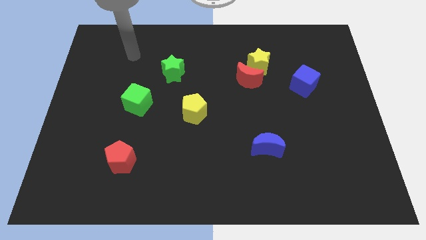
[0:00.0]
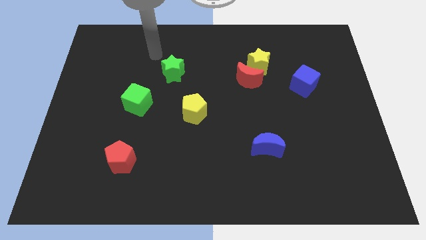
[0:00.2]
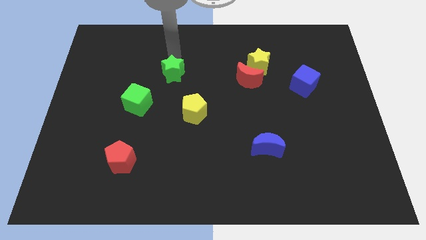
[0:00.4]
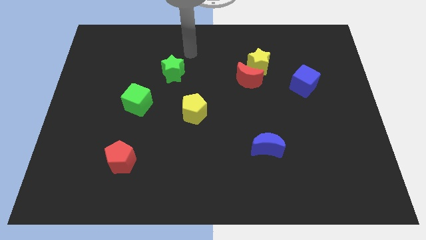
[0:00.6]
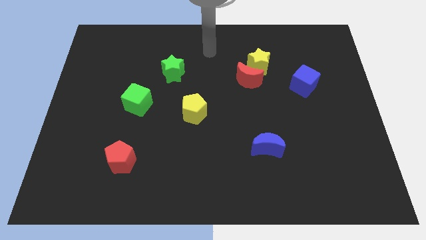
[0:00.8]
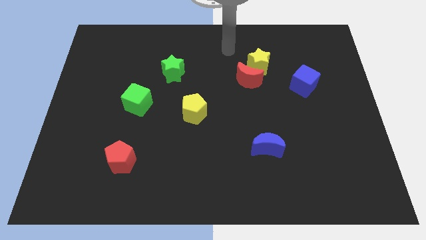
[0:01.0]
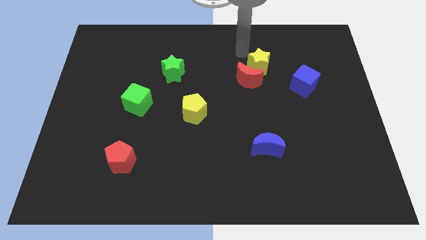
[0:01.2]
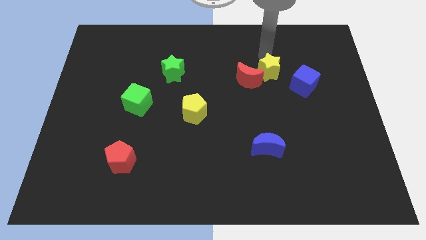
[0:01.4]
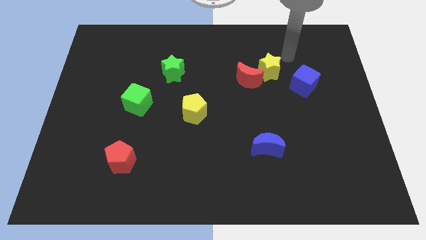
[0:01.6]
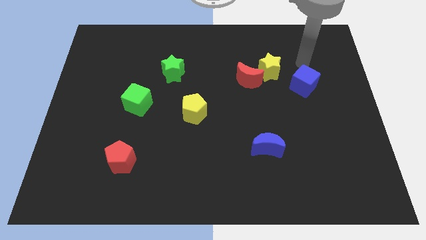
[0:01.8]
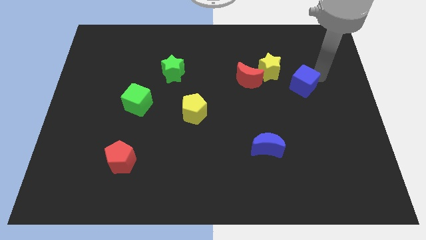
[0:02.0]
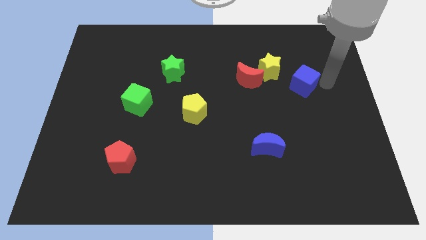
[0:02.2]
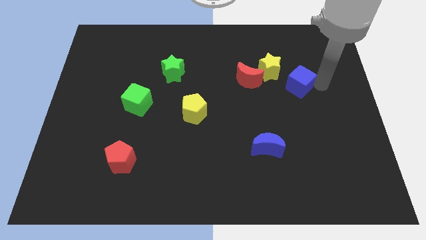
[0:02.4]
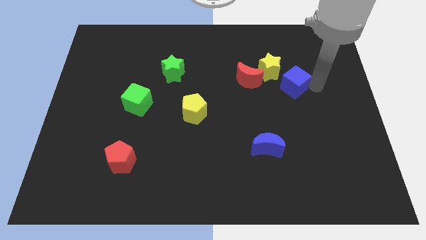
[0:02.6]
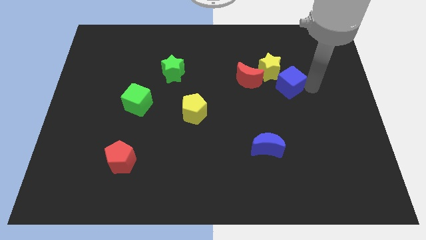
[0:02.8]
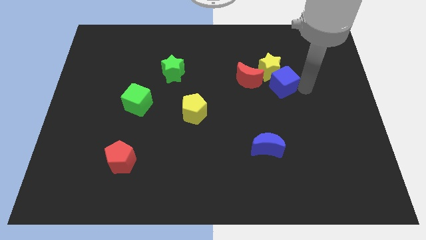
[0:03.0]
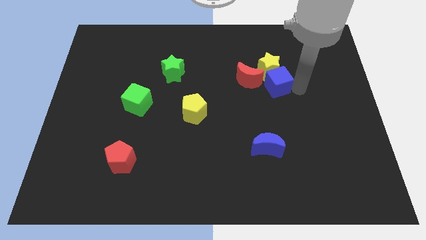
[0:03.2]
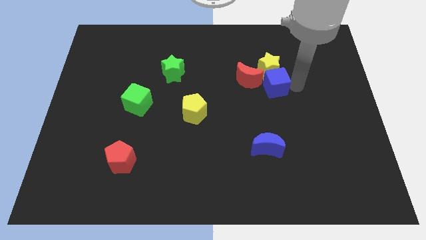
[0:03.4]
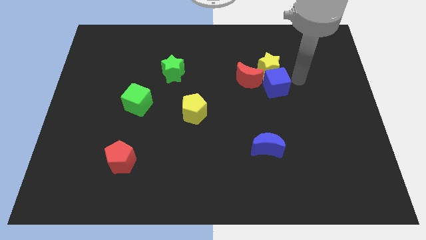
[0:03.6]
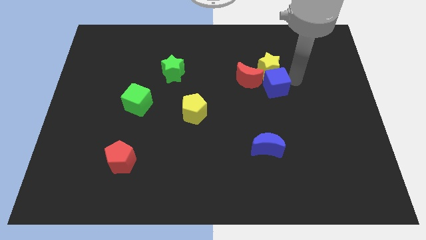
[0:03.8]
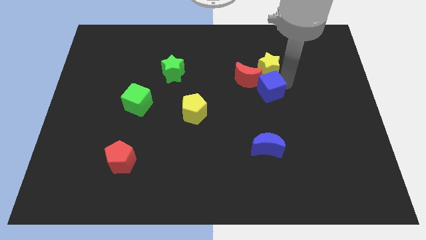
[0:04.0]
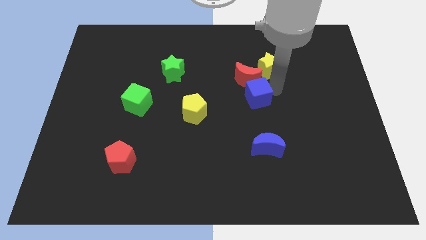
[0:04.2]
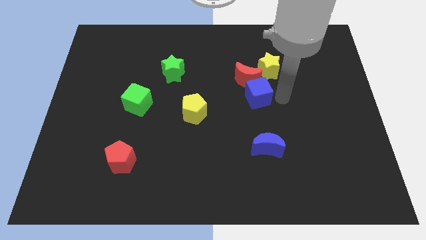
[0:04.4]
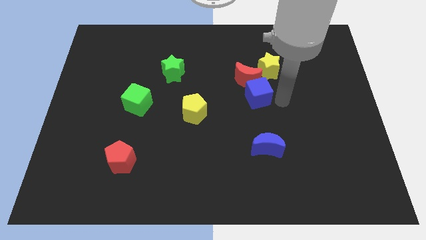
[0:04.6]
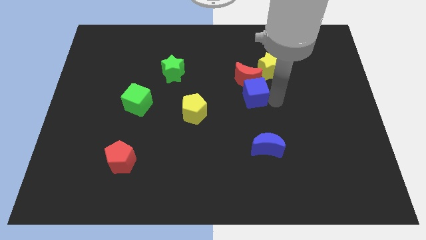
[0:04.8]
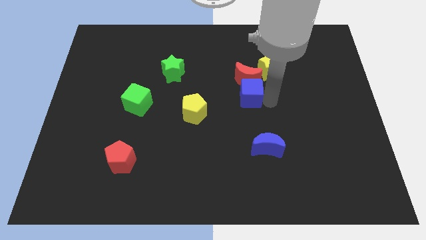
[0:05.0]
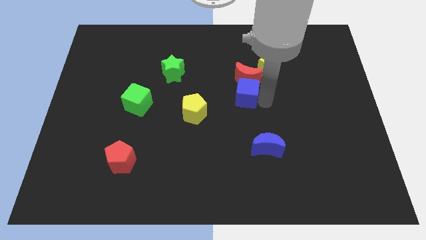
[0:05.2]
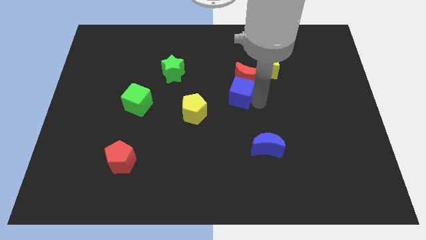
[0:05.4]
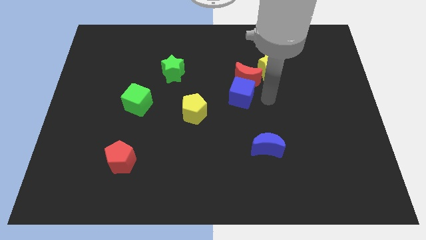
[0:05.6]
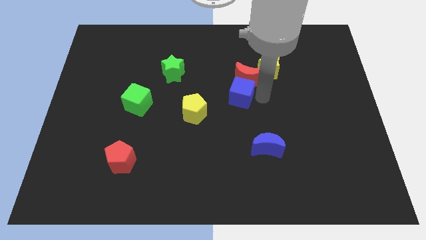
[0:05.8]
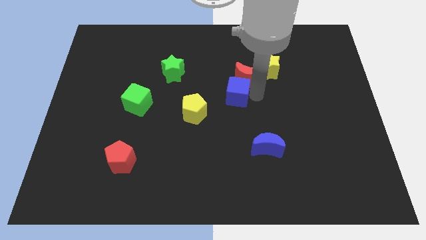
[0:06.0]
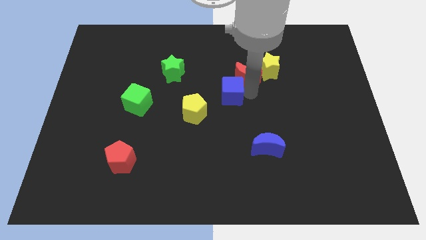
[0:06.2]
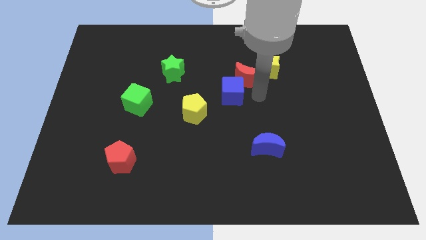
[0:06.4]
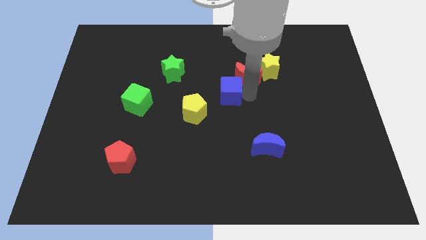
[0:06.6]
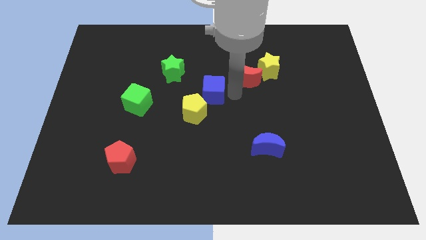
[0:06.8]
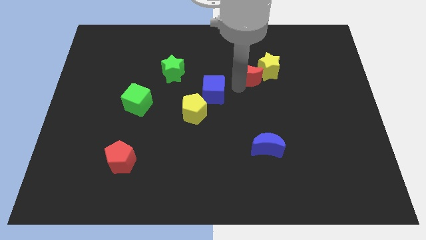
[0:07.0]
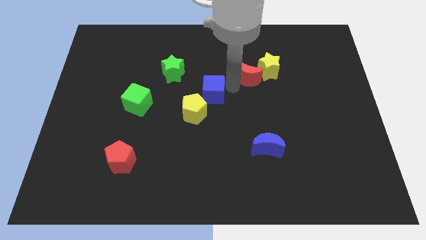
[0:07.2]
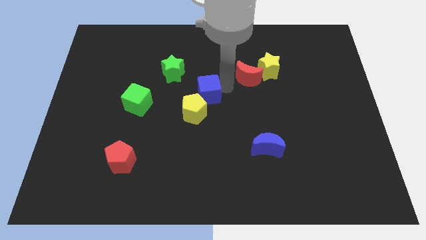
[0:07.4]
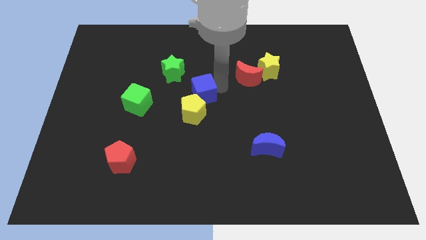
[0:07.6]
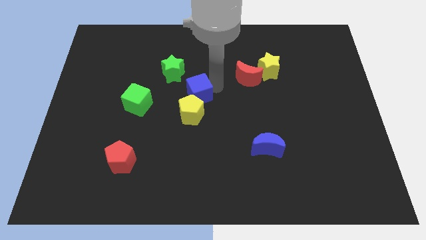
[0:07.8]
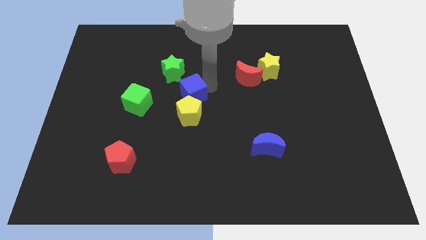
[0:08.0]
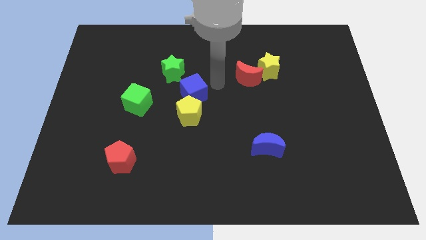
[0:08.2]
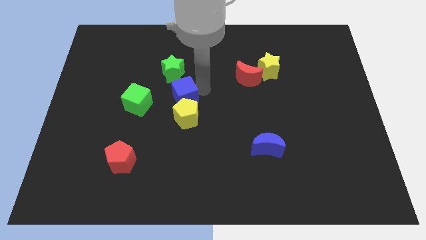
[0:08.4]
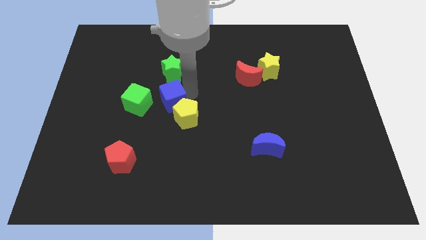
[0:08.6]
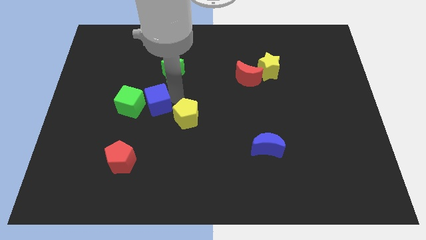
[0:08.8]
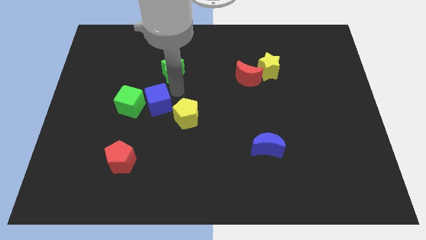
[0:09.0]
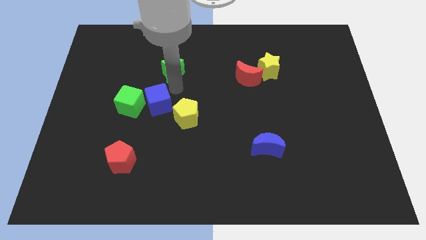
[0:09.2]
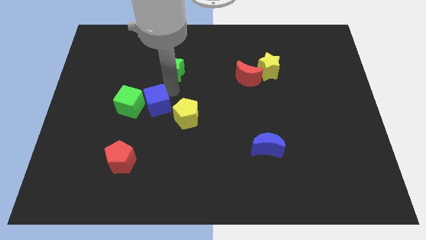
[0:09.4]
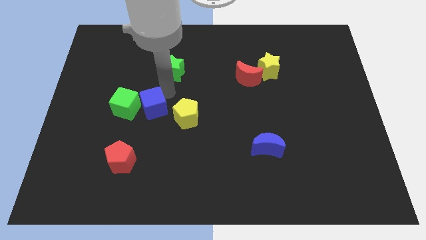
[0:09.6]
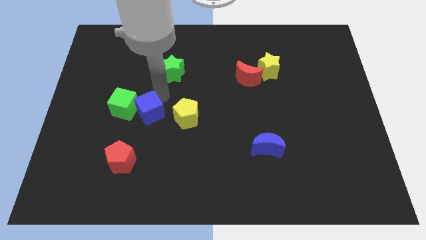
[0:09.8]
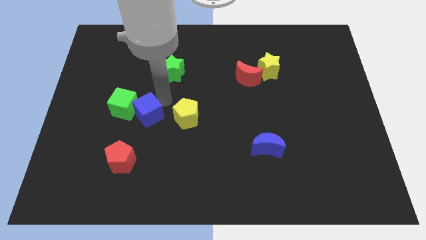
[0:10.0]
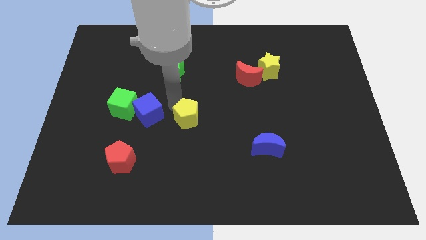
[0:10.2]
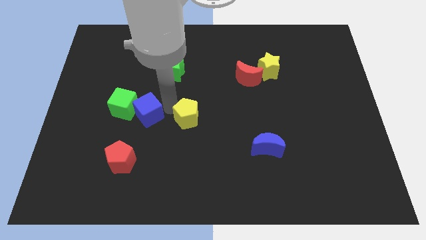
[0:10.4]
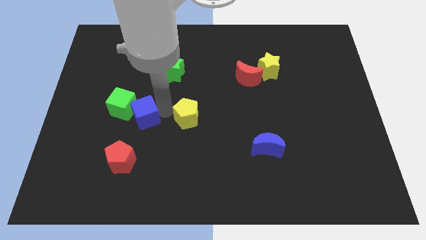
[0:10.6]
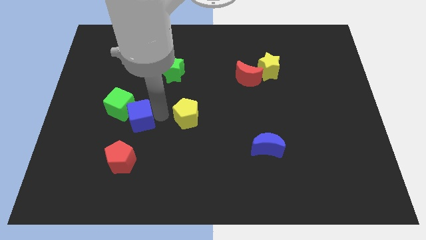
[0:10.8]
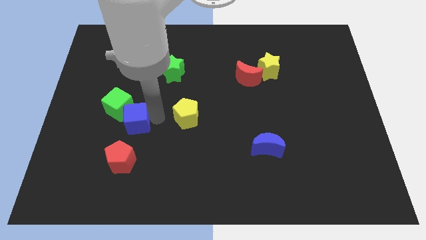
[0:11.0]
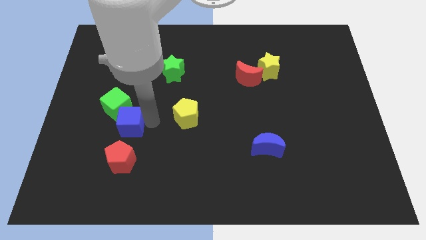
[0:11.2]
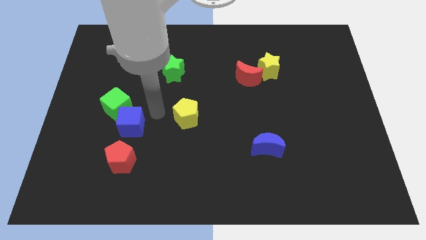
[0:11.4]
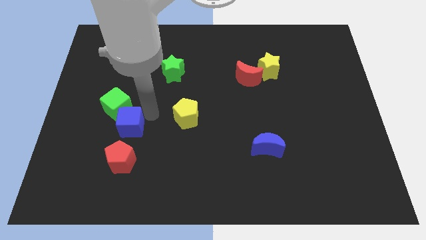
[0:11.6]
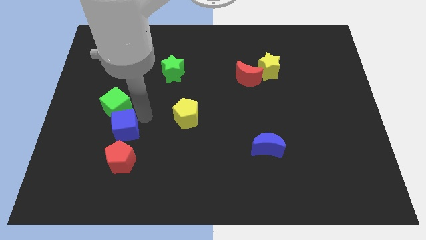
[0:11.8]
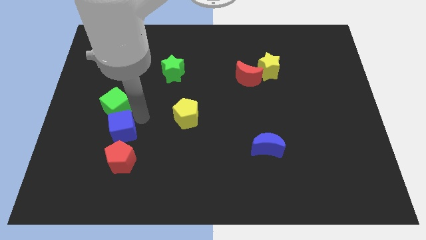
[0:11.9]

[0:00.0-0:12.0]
slide the blue cube to the top left side of the red pentagon

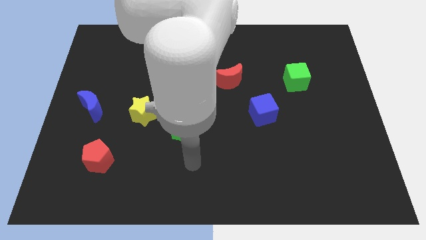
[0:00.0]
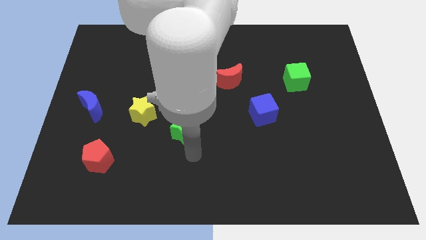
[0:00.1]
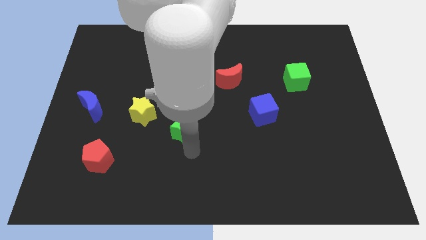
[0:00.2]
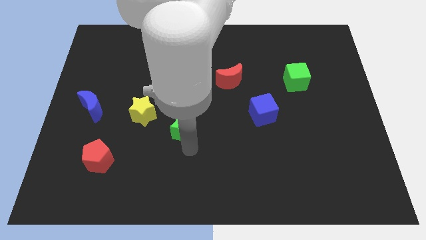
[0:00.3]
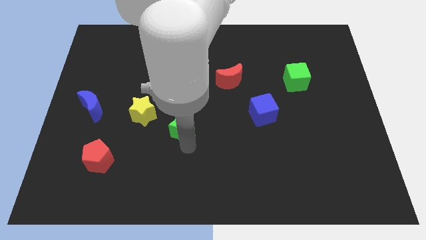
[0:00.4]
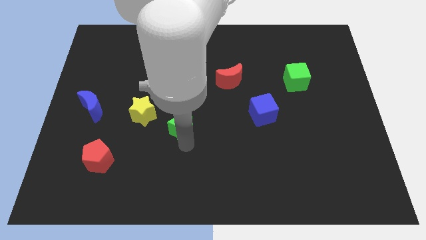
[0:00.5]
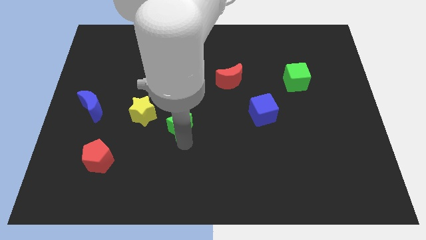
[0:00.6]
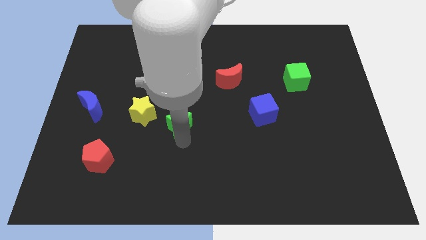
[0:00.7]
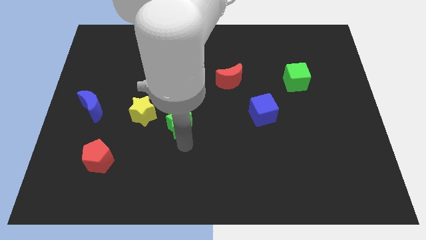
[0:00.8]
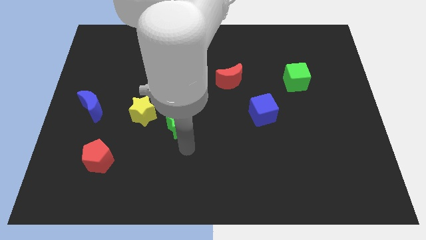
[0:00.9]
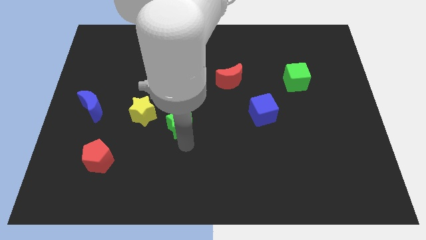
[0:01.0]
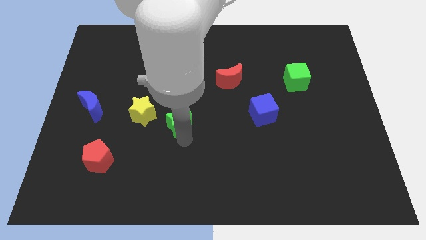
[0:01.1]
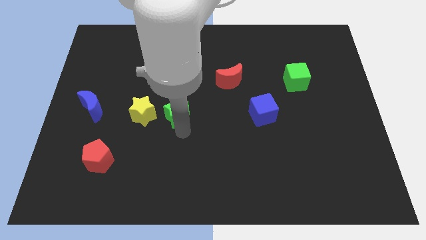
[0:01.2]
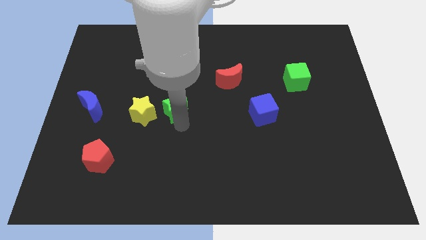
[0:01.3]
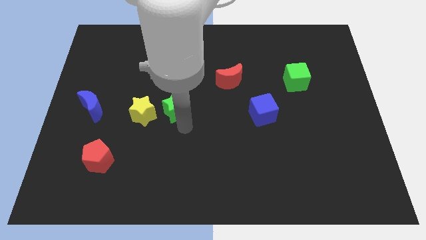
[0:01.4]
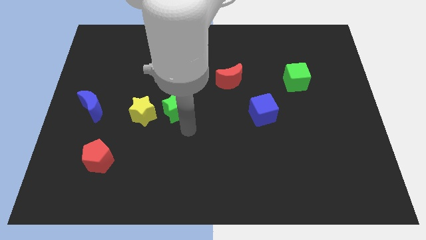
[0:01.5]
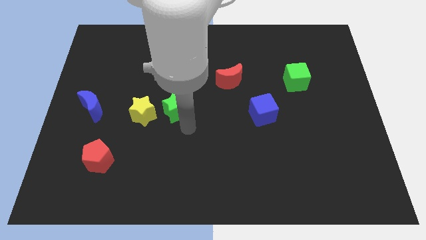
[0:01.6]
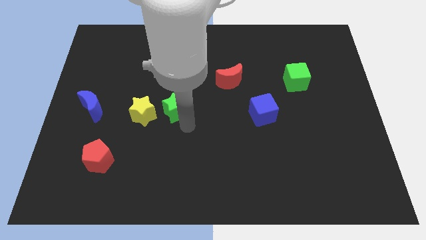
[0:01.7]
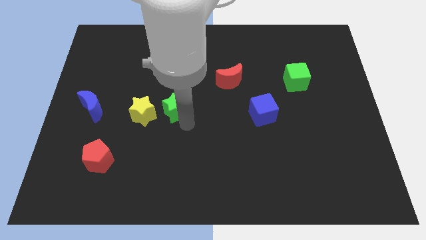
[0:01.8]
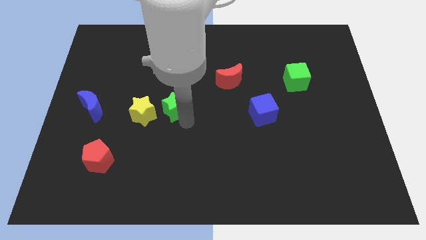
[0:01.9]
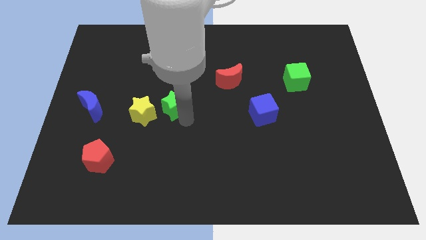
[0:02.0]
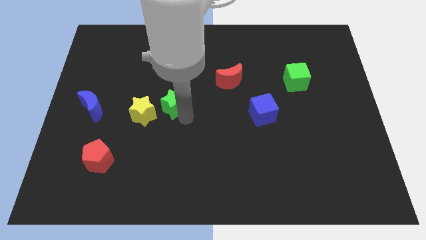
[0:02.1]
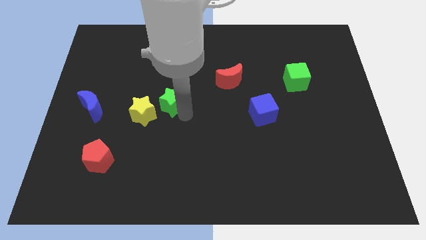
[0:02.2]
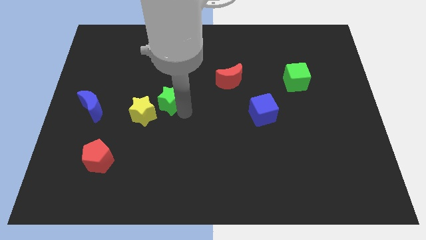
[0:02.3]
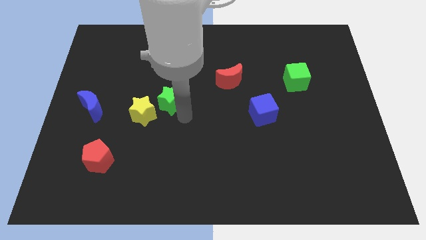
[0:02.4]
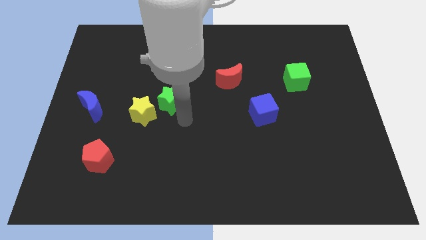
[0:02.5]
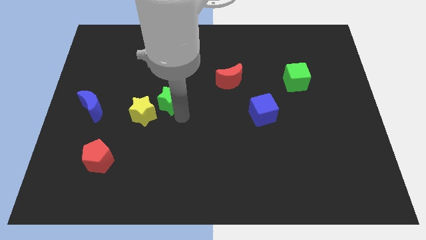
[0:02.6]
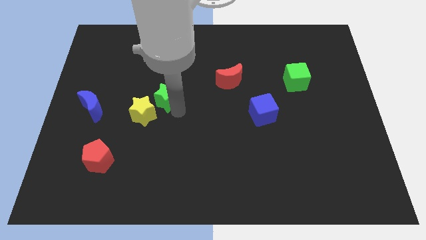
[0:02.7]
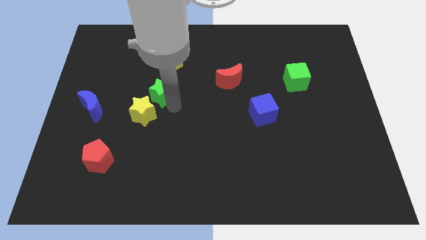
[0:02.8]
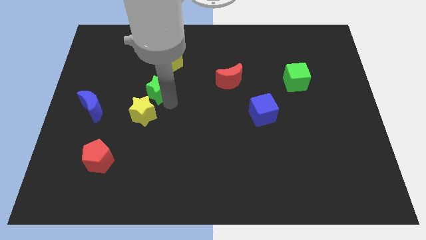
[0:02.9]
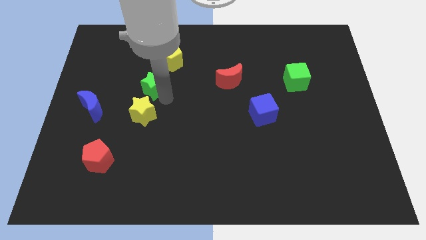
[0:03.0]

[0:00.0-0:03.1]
slide the green star diagonally down and to the left of the yellow pentagon
